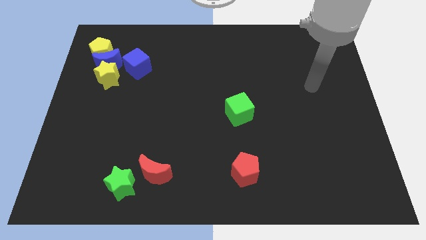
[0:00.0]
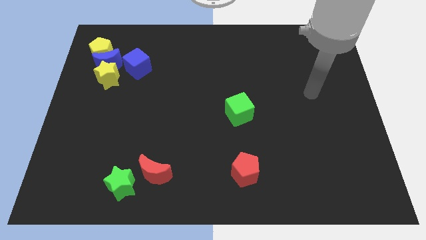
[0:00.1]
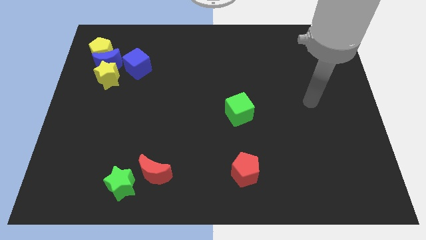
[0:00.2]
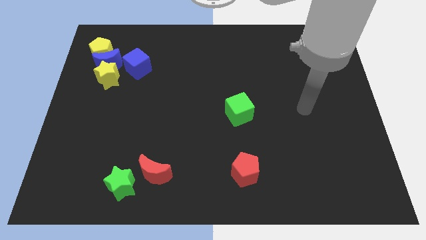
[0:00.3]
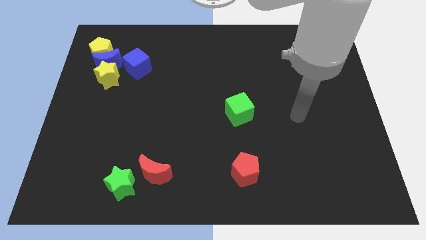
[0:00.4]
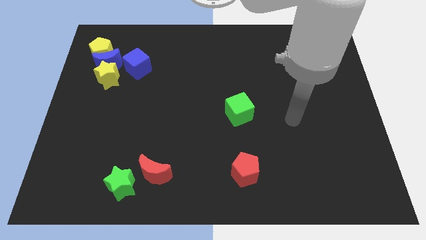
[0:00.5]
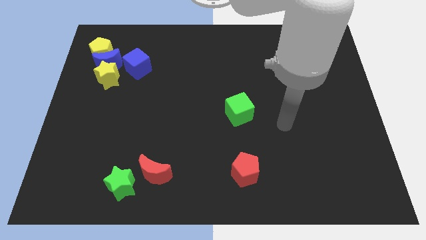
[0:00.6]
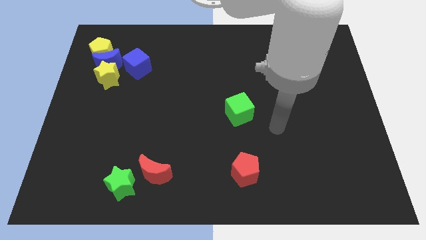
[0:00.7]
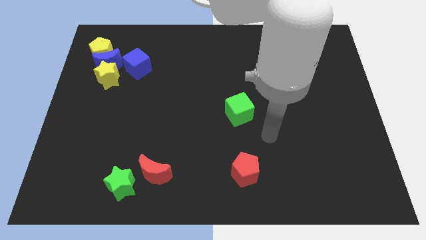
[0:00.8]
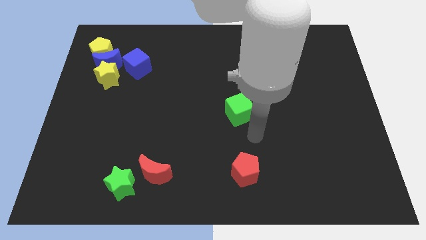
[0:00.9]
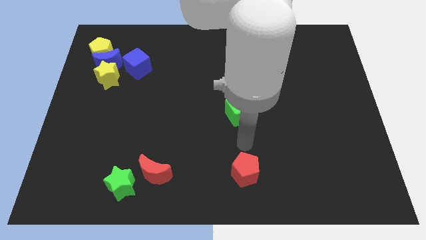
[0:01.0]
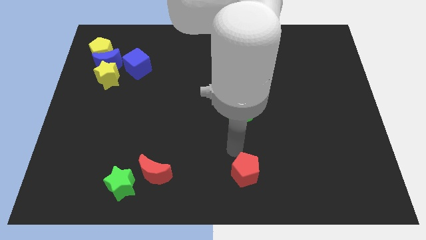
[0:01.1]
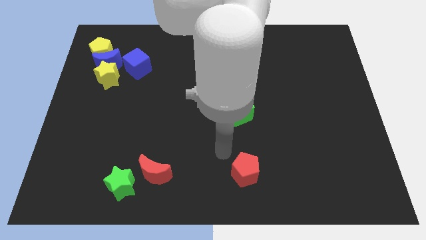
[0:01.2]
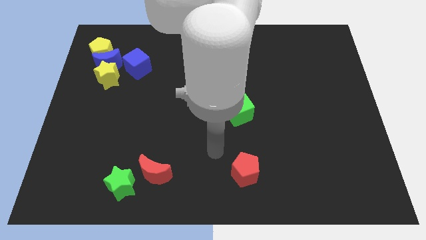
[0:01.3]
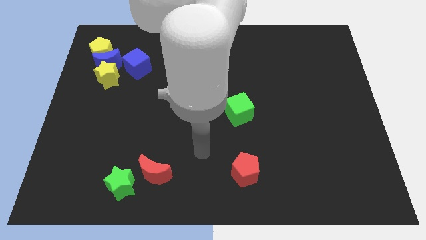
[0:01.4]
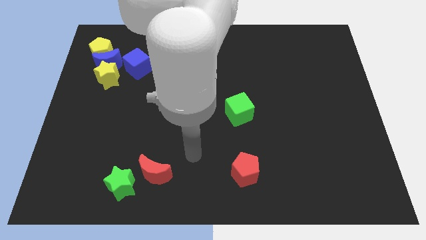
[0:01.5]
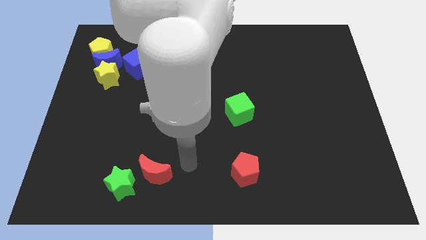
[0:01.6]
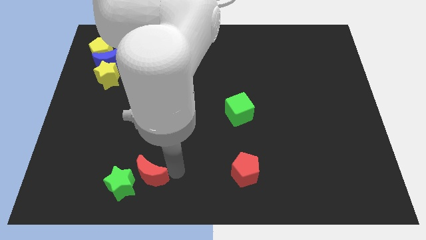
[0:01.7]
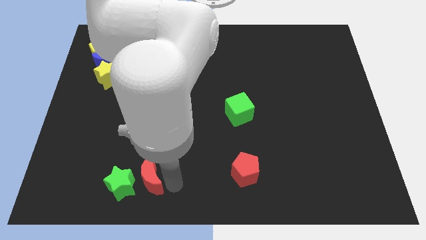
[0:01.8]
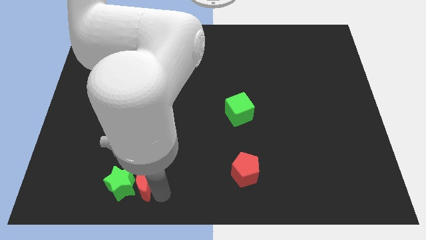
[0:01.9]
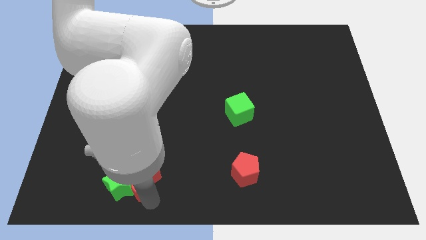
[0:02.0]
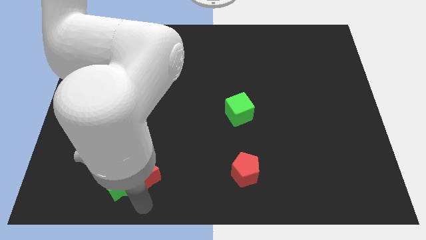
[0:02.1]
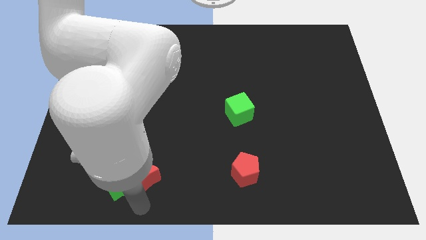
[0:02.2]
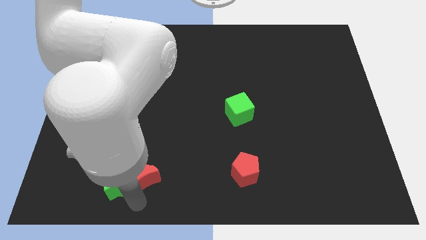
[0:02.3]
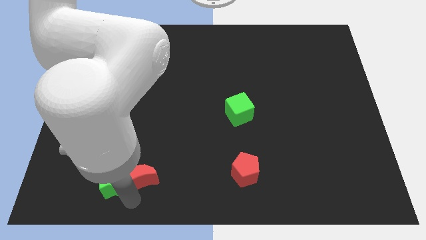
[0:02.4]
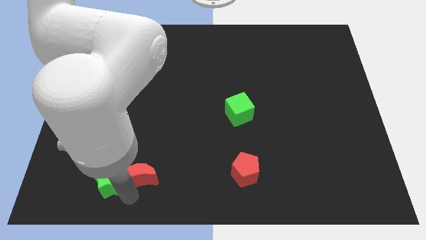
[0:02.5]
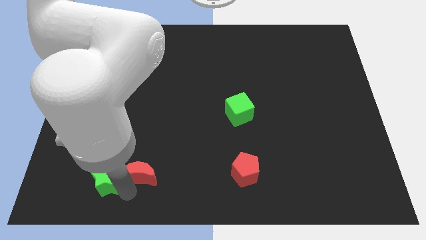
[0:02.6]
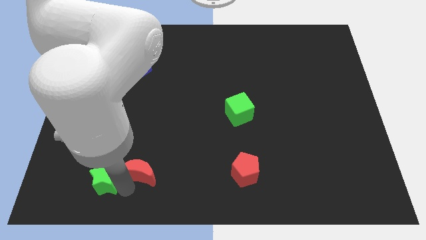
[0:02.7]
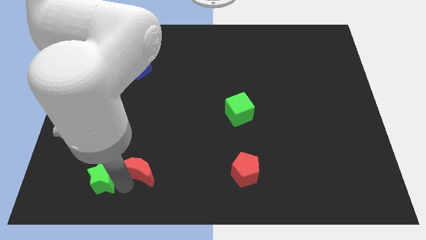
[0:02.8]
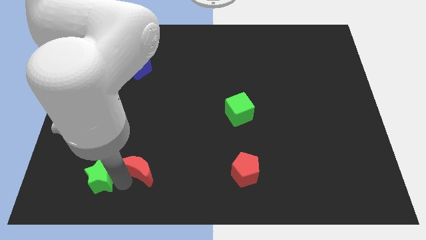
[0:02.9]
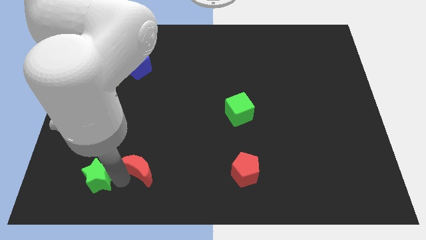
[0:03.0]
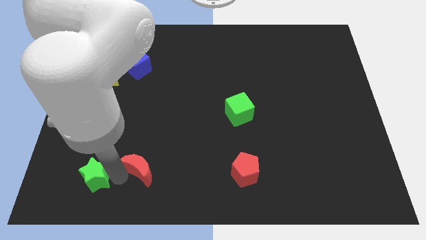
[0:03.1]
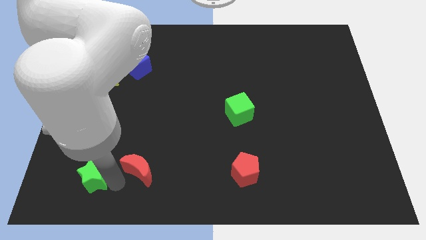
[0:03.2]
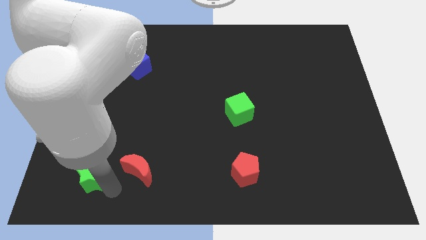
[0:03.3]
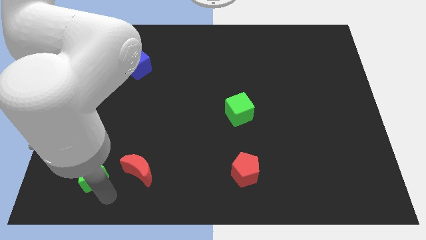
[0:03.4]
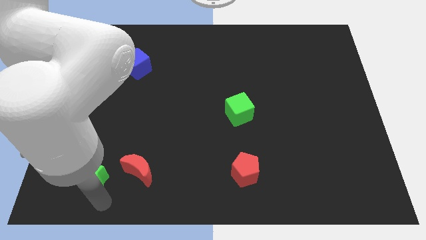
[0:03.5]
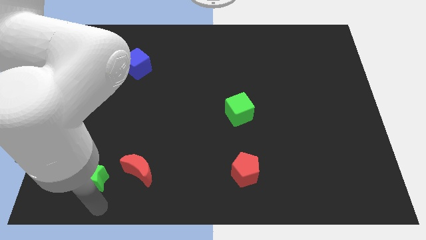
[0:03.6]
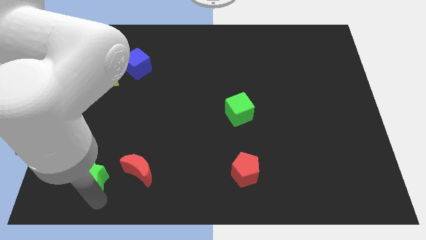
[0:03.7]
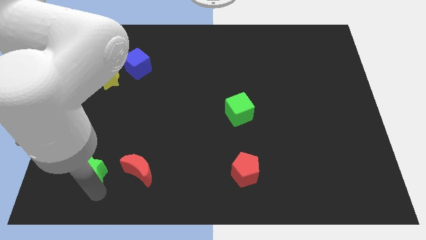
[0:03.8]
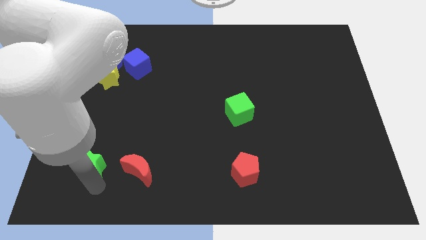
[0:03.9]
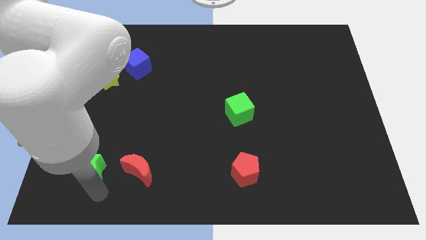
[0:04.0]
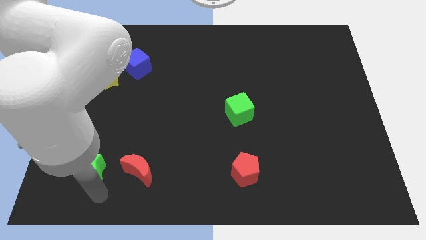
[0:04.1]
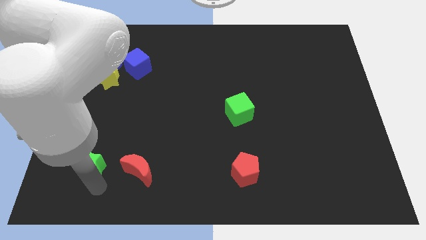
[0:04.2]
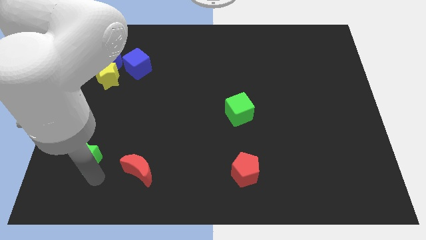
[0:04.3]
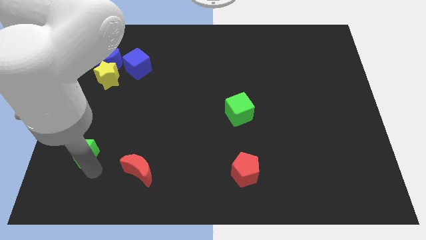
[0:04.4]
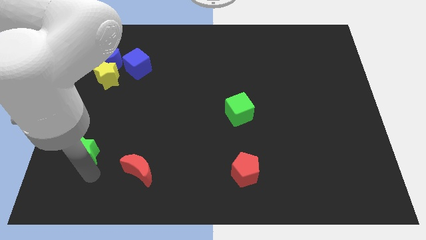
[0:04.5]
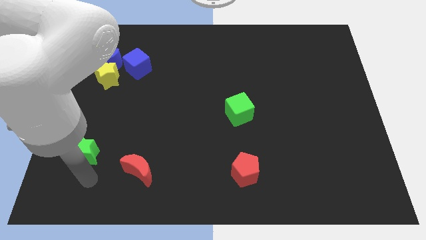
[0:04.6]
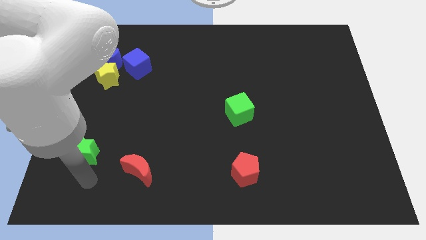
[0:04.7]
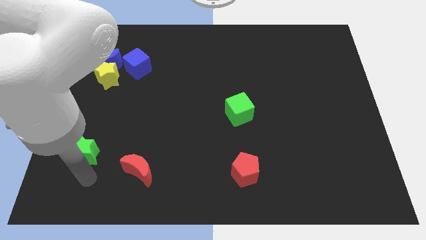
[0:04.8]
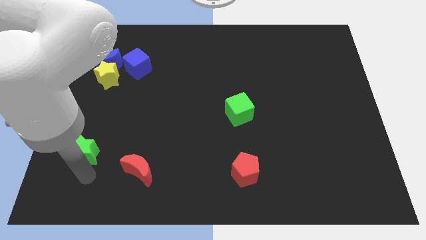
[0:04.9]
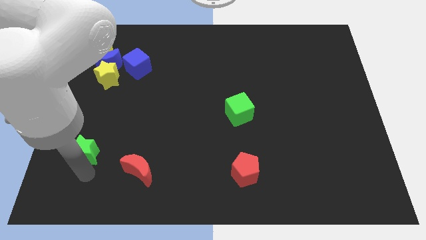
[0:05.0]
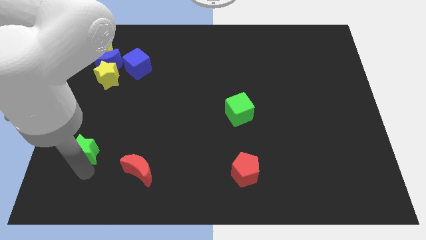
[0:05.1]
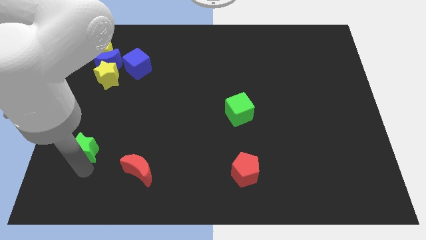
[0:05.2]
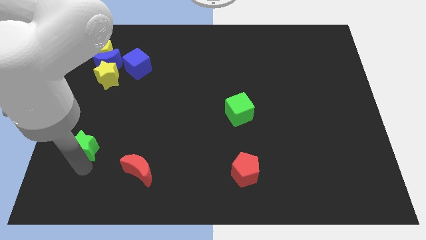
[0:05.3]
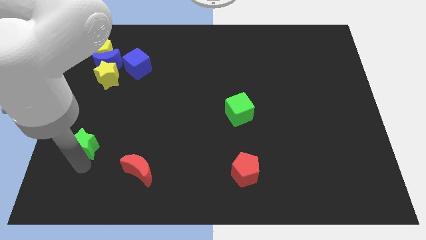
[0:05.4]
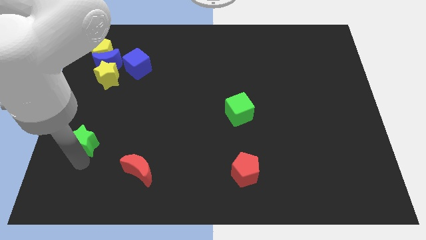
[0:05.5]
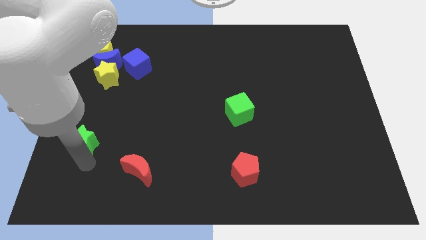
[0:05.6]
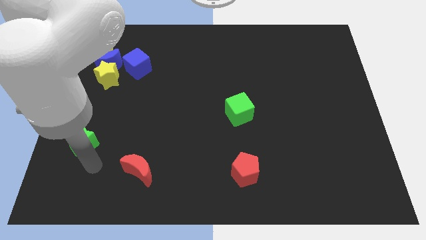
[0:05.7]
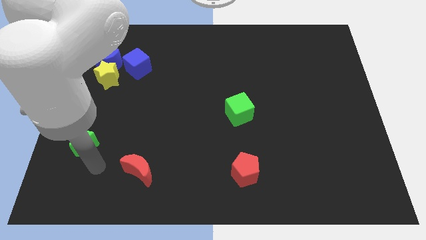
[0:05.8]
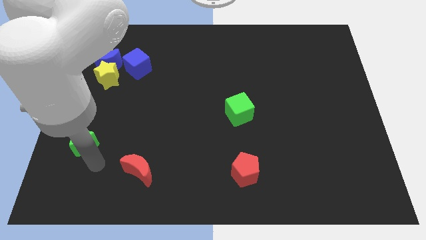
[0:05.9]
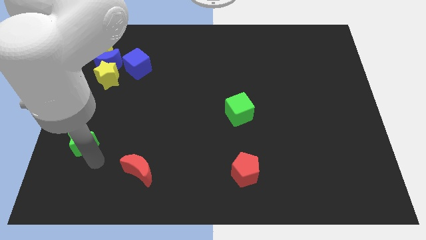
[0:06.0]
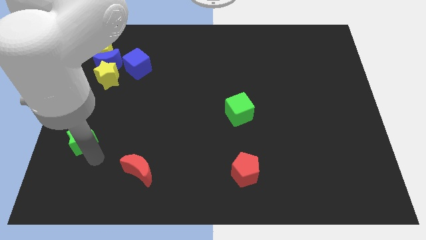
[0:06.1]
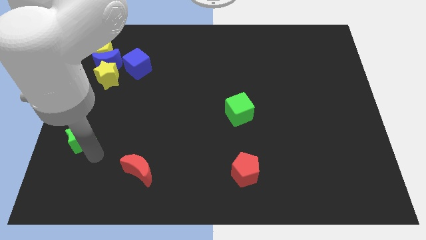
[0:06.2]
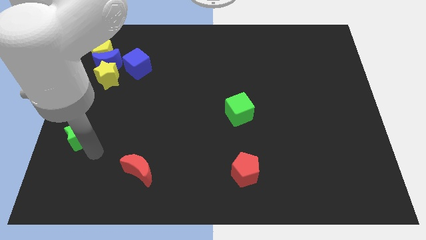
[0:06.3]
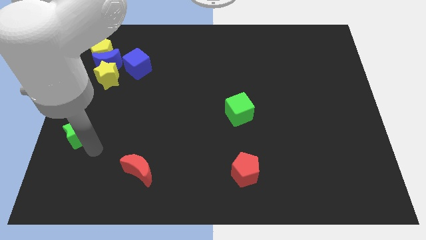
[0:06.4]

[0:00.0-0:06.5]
move the green star to the left side of the board
